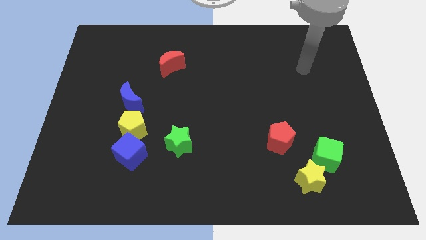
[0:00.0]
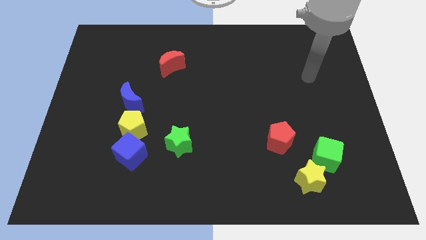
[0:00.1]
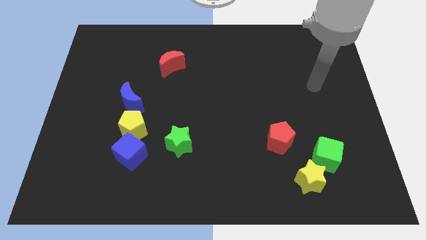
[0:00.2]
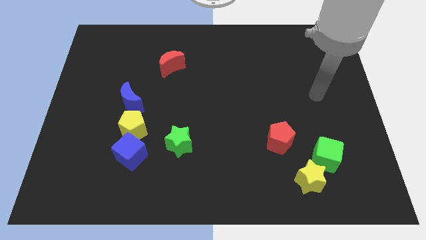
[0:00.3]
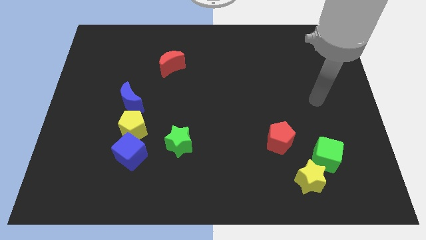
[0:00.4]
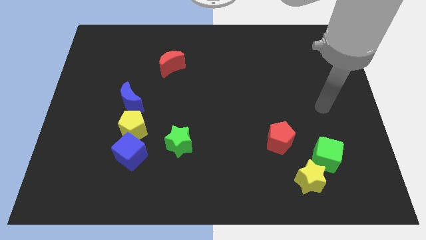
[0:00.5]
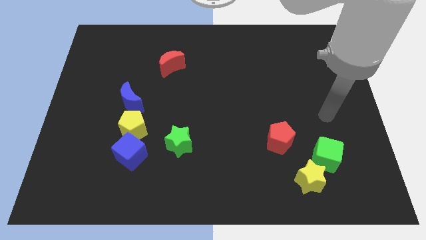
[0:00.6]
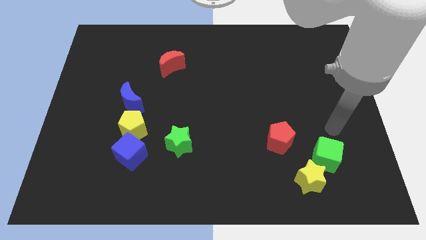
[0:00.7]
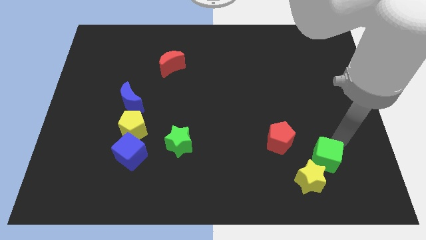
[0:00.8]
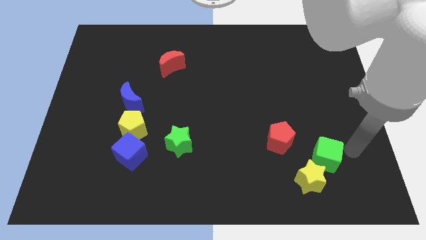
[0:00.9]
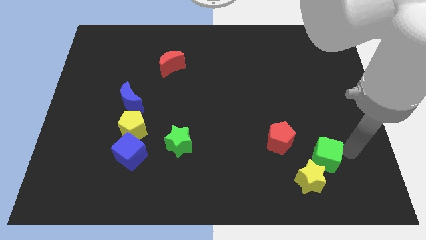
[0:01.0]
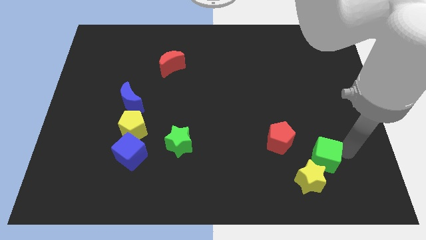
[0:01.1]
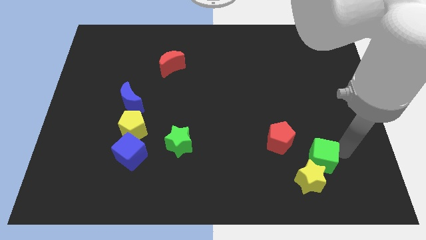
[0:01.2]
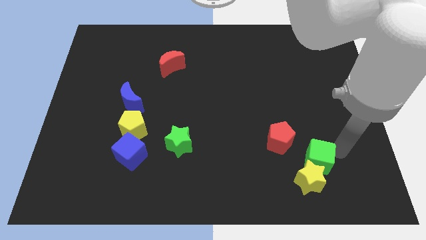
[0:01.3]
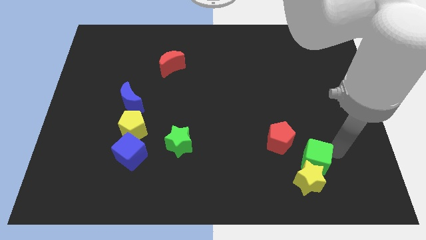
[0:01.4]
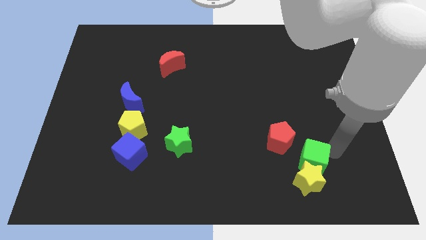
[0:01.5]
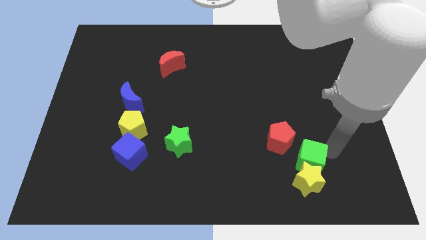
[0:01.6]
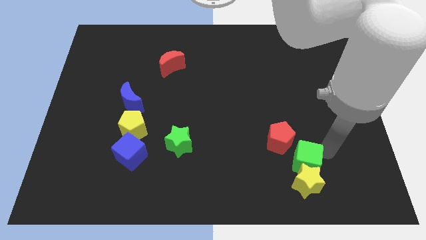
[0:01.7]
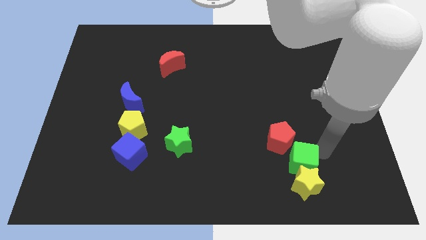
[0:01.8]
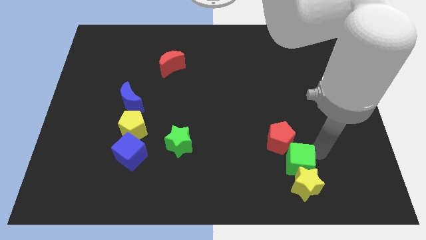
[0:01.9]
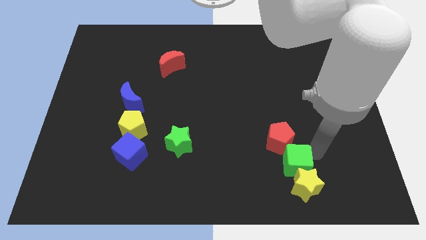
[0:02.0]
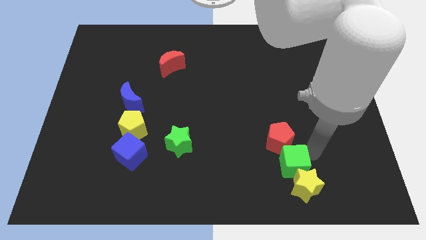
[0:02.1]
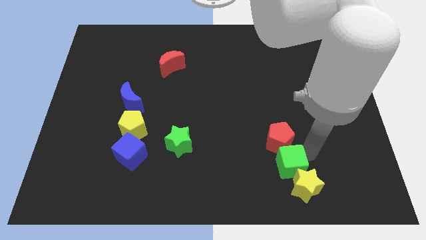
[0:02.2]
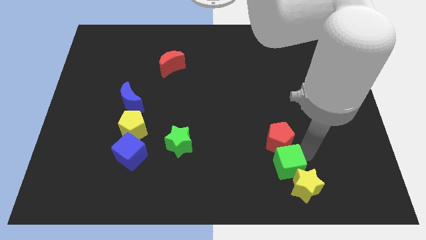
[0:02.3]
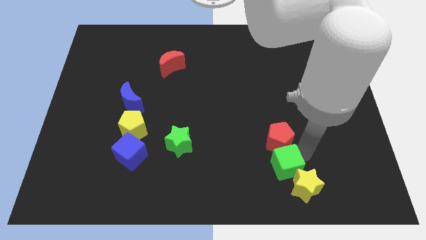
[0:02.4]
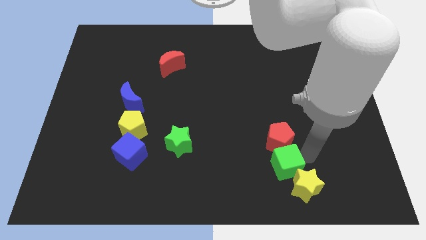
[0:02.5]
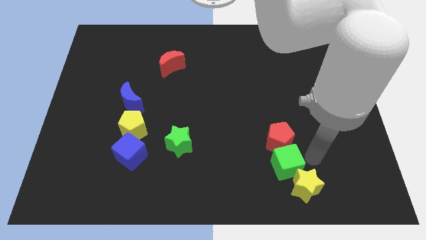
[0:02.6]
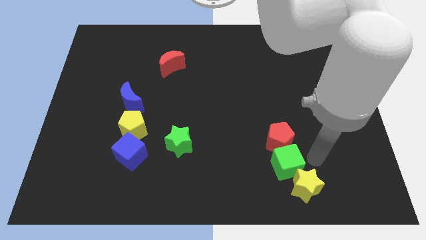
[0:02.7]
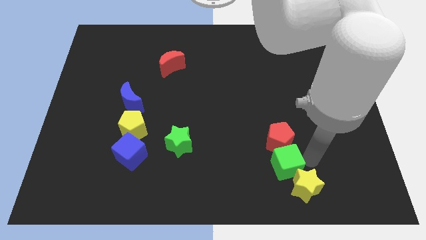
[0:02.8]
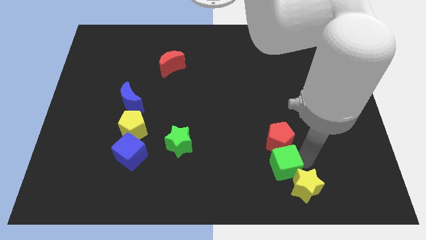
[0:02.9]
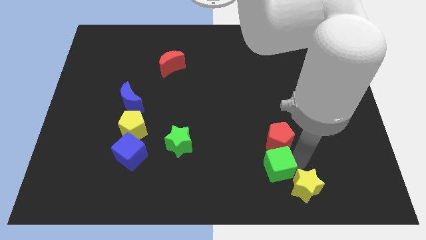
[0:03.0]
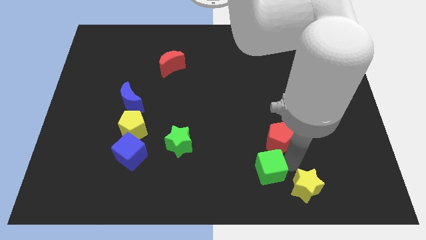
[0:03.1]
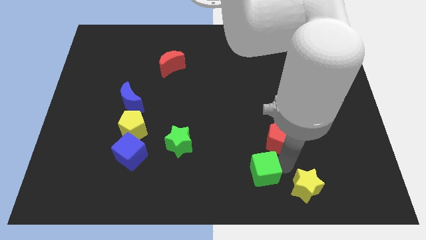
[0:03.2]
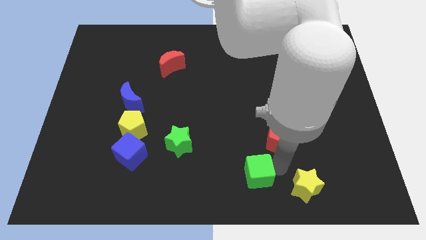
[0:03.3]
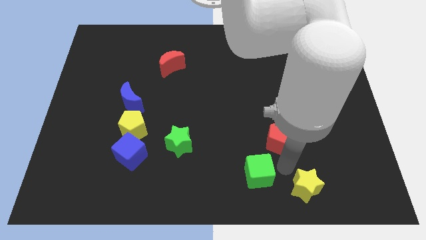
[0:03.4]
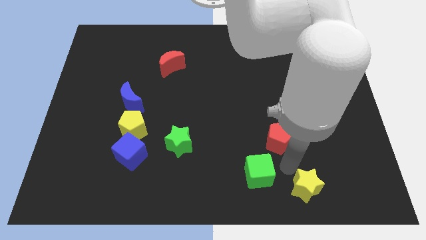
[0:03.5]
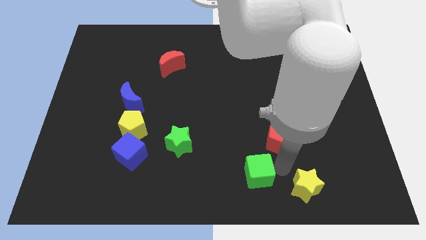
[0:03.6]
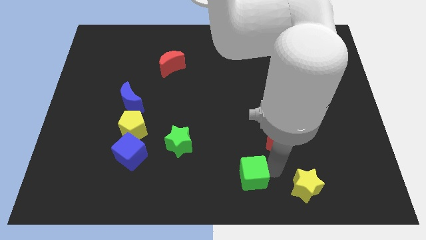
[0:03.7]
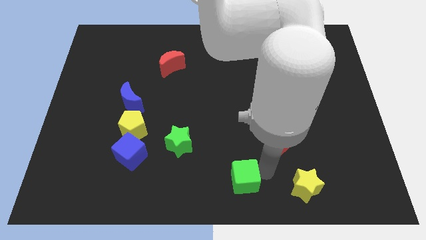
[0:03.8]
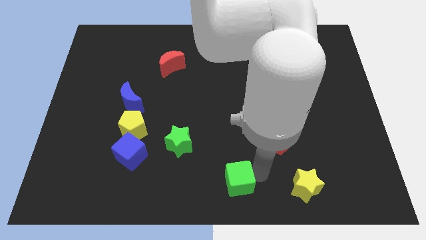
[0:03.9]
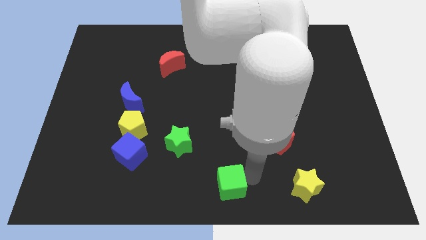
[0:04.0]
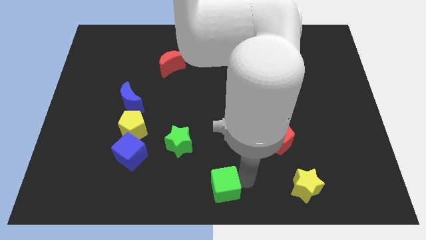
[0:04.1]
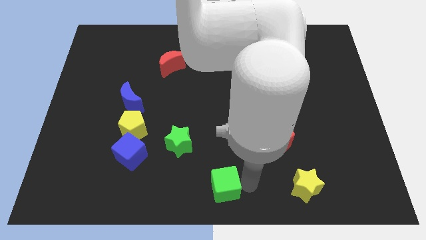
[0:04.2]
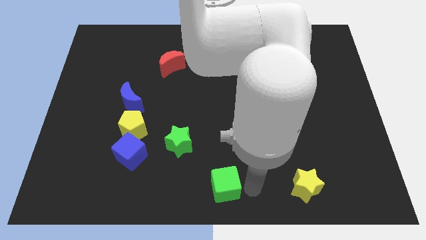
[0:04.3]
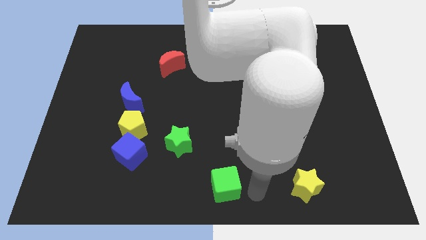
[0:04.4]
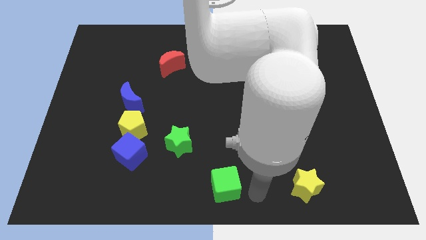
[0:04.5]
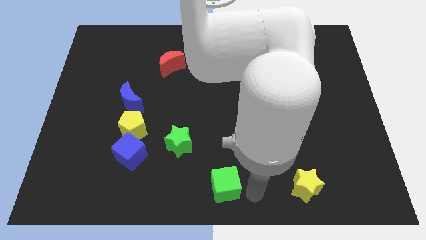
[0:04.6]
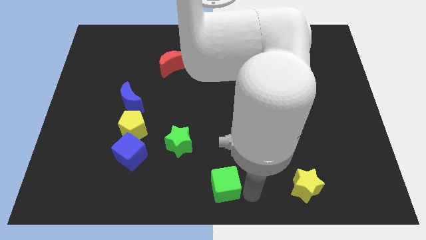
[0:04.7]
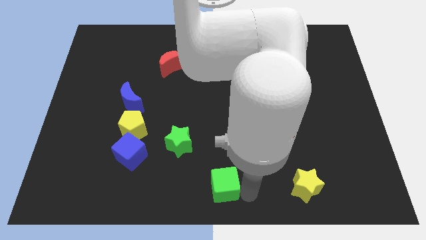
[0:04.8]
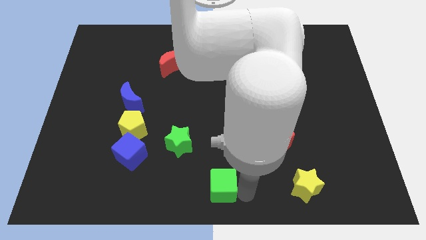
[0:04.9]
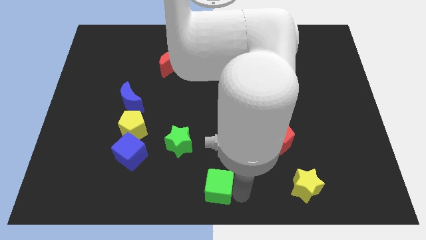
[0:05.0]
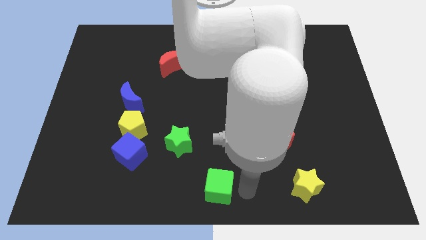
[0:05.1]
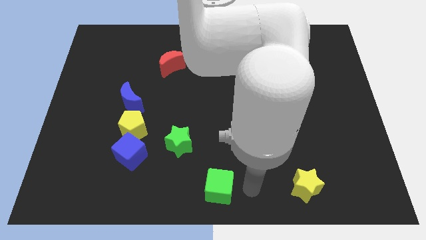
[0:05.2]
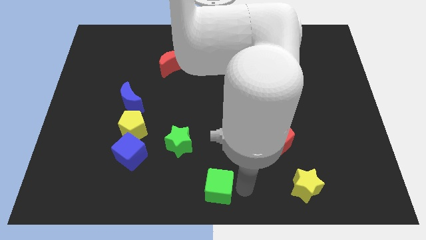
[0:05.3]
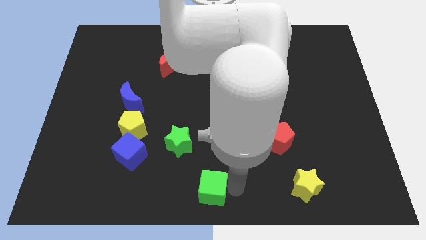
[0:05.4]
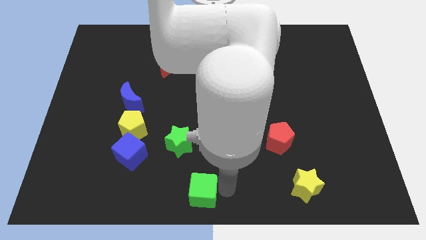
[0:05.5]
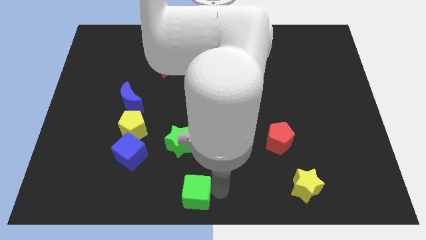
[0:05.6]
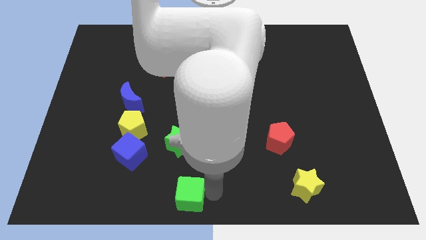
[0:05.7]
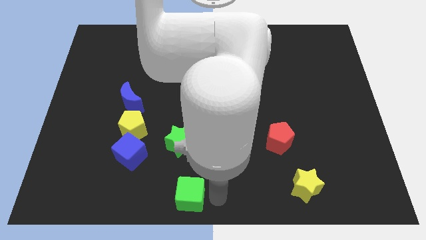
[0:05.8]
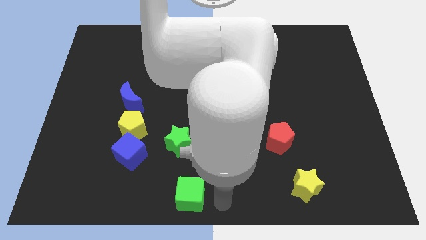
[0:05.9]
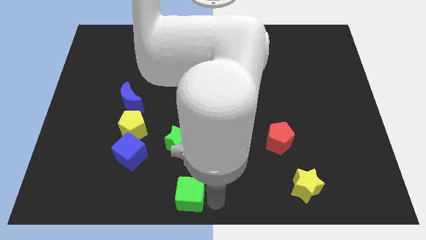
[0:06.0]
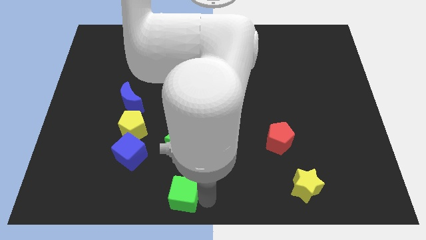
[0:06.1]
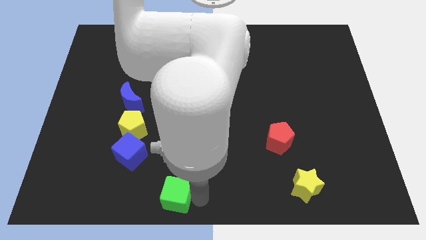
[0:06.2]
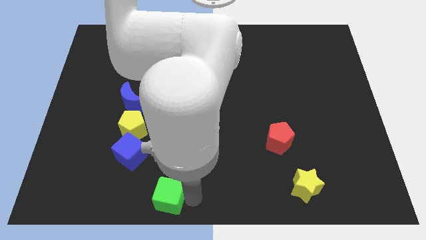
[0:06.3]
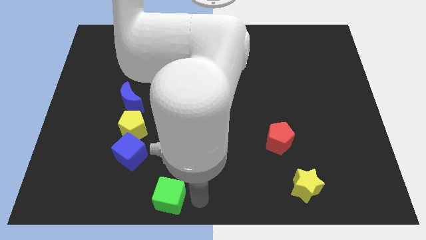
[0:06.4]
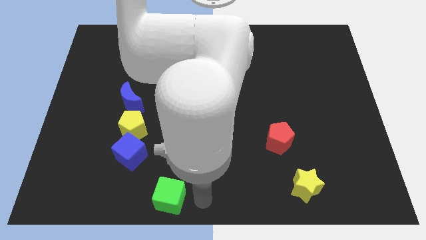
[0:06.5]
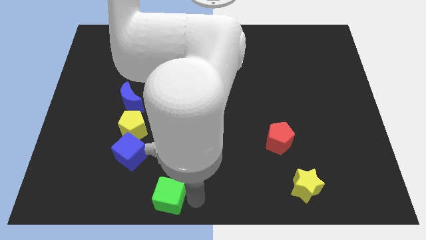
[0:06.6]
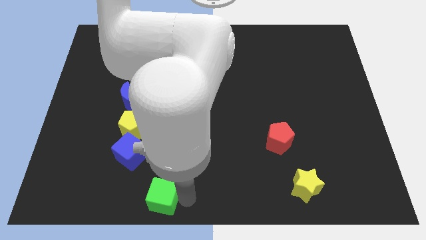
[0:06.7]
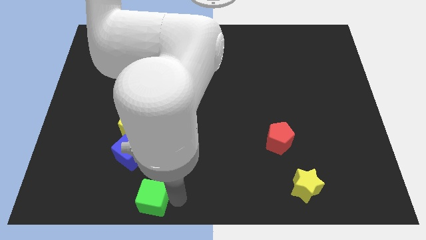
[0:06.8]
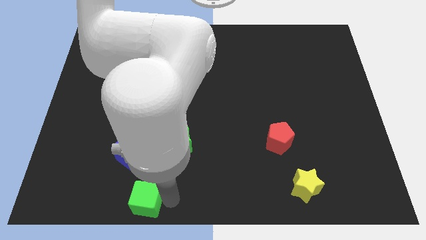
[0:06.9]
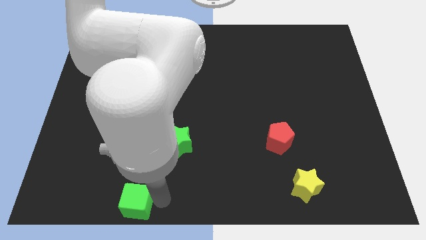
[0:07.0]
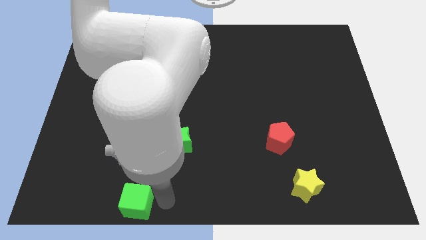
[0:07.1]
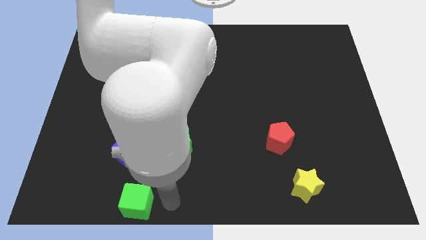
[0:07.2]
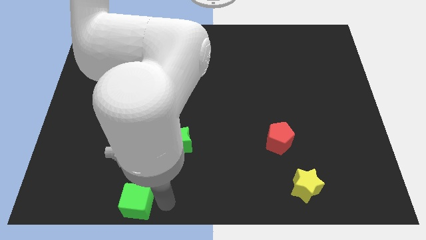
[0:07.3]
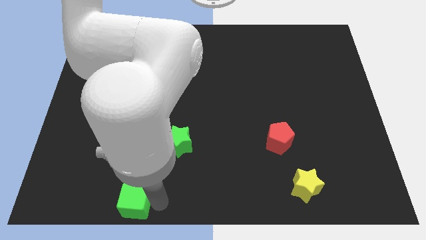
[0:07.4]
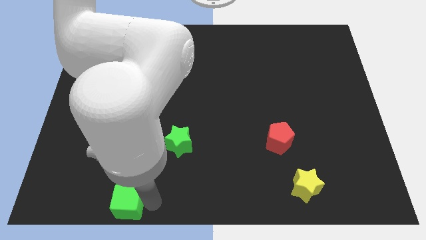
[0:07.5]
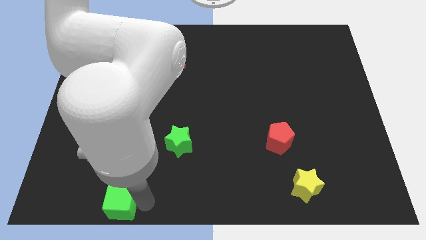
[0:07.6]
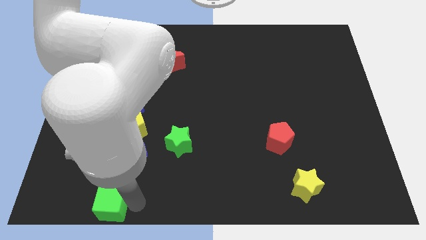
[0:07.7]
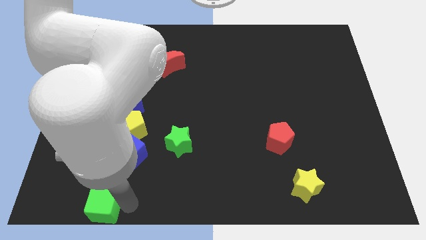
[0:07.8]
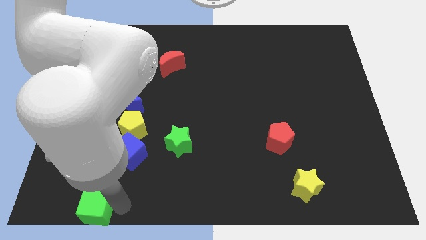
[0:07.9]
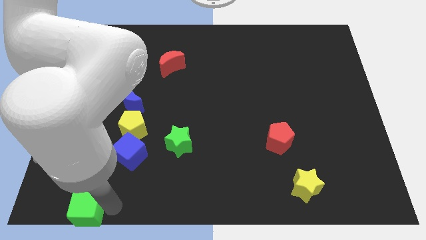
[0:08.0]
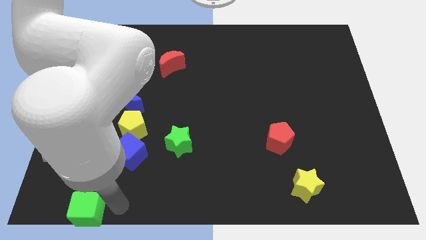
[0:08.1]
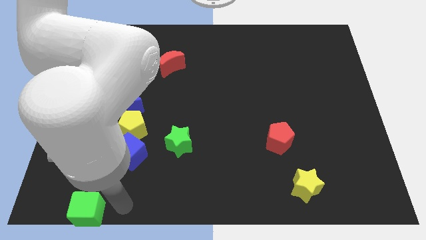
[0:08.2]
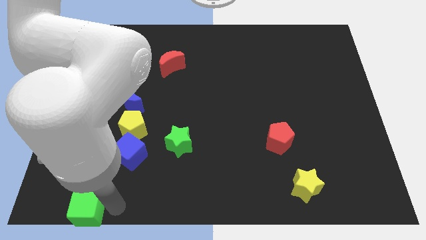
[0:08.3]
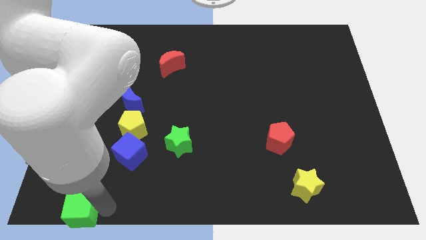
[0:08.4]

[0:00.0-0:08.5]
move the green cube to the bottom left corner
